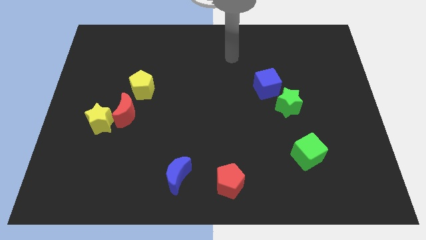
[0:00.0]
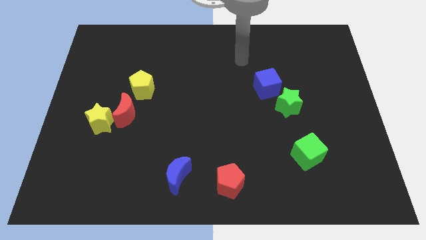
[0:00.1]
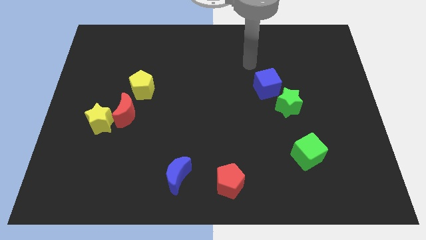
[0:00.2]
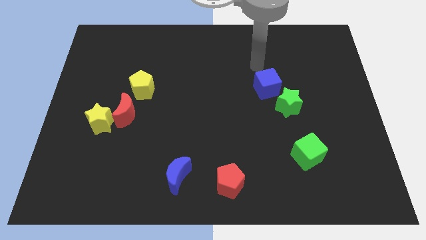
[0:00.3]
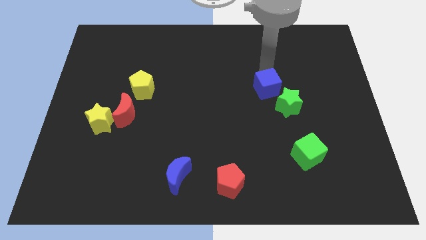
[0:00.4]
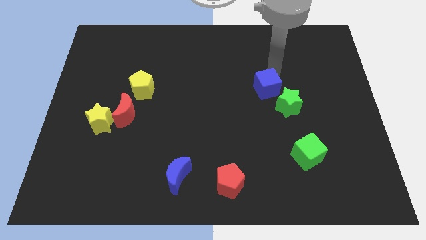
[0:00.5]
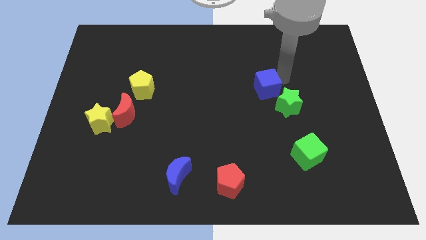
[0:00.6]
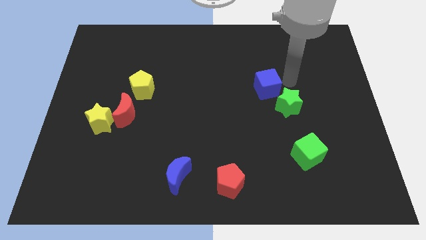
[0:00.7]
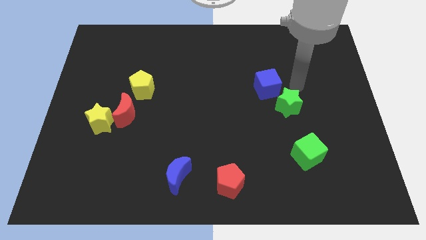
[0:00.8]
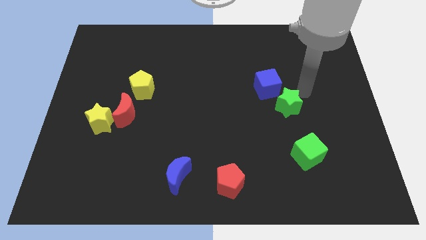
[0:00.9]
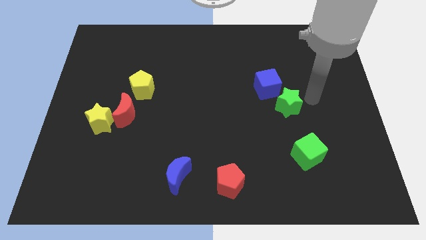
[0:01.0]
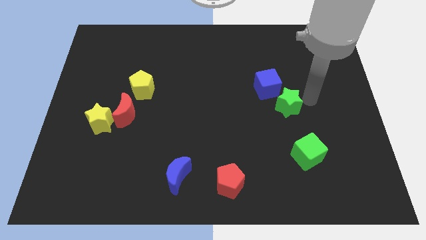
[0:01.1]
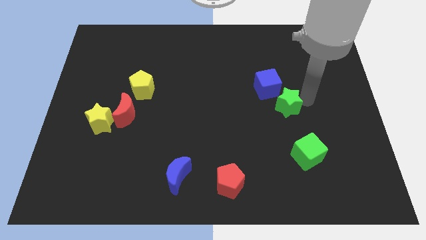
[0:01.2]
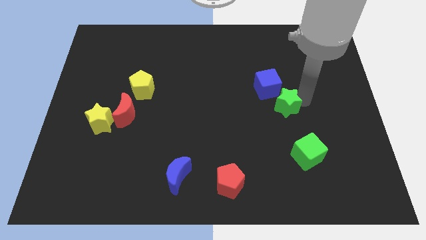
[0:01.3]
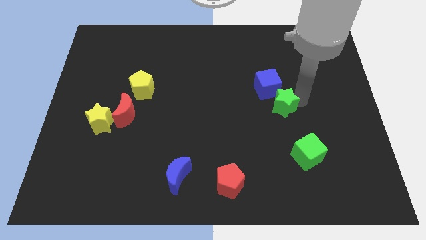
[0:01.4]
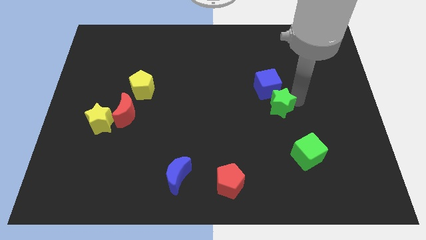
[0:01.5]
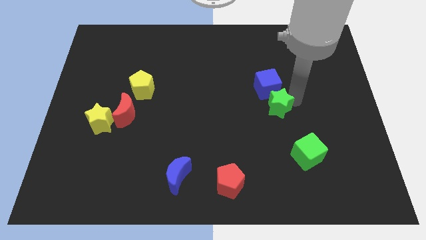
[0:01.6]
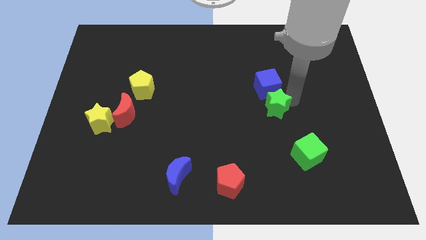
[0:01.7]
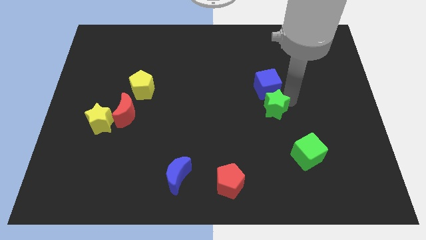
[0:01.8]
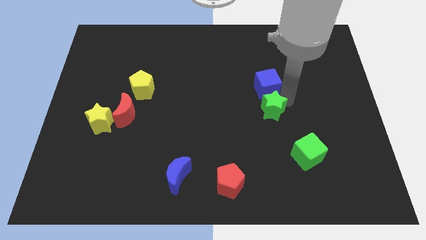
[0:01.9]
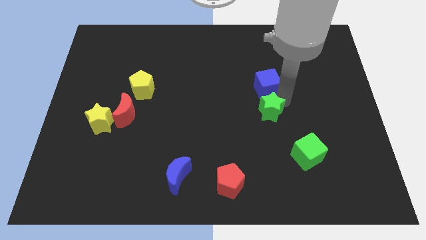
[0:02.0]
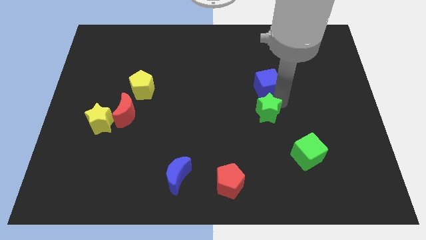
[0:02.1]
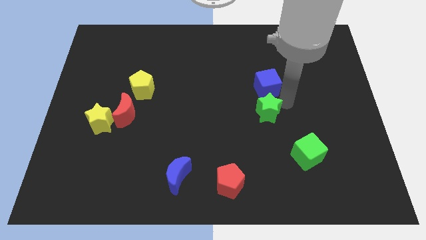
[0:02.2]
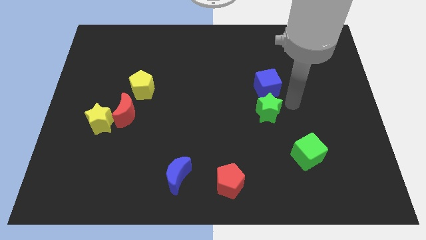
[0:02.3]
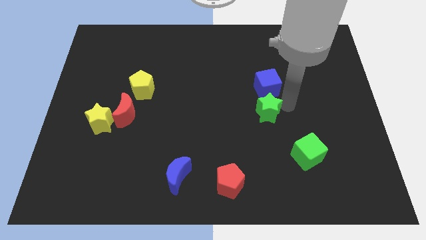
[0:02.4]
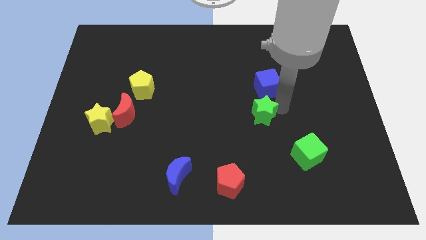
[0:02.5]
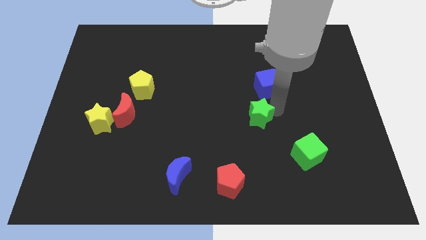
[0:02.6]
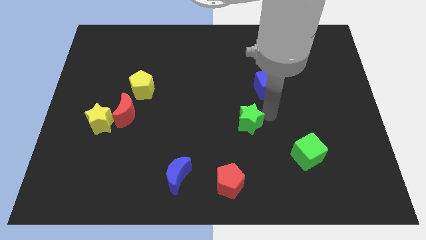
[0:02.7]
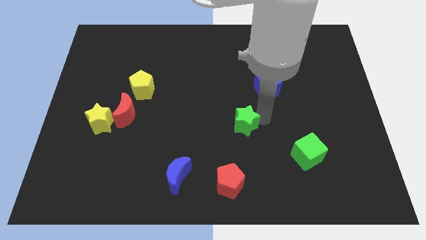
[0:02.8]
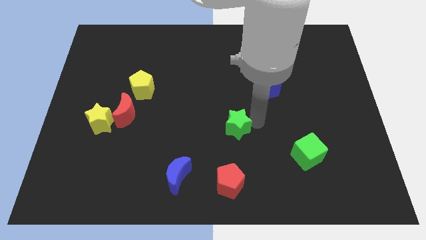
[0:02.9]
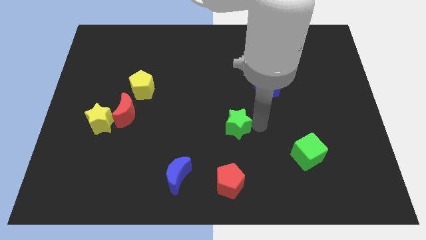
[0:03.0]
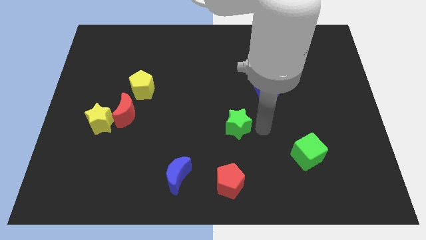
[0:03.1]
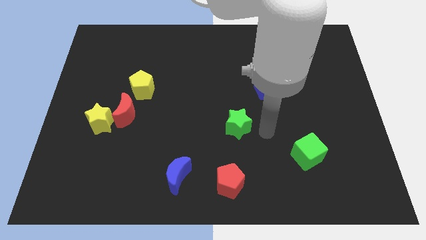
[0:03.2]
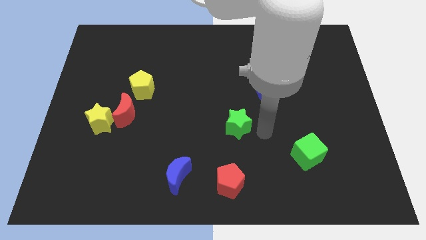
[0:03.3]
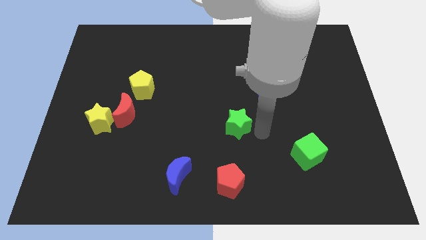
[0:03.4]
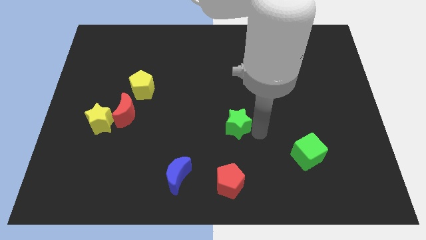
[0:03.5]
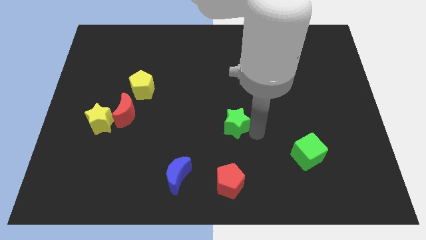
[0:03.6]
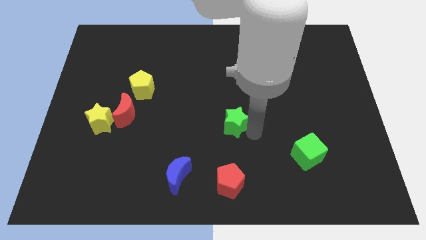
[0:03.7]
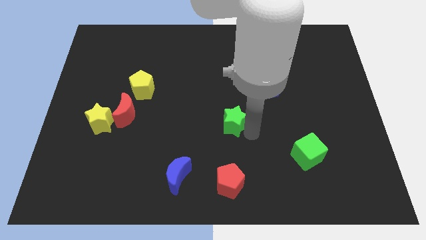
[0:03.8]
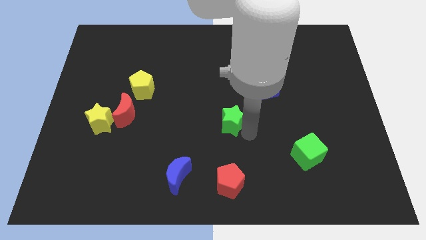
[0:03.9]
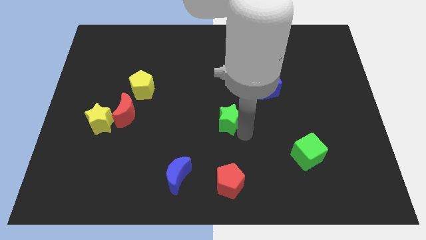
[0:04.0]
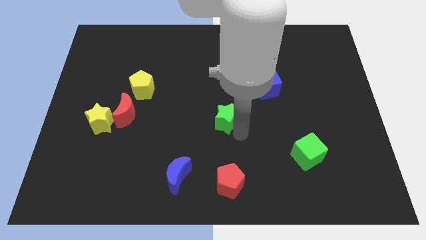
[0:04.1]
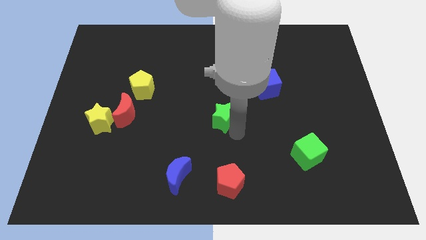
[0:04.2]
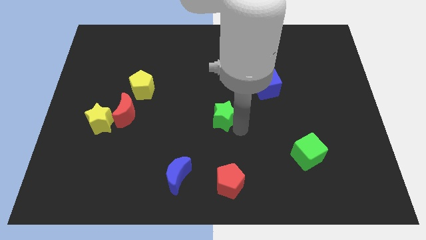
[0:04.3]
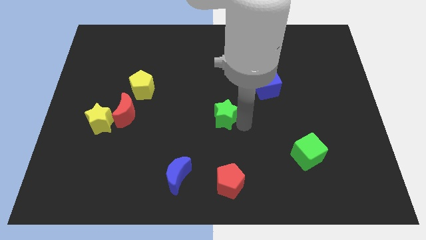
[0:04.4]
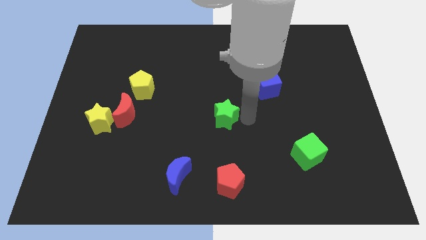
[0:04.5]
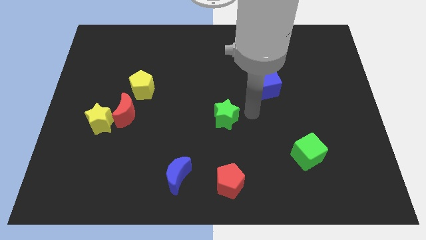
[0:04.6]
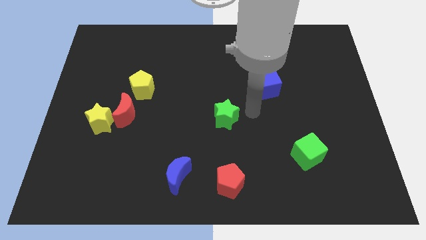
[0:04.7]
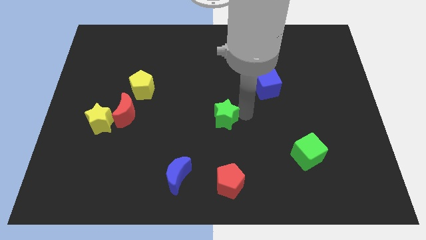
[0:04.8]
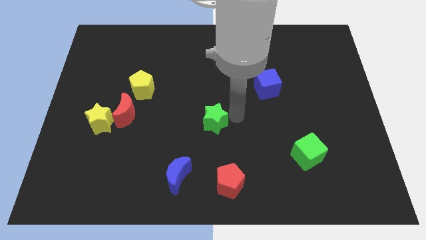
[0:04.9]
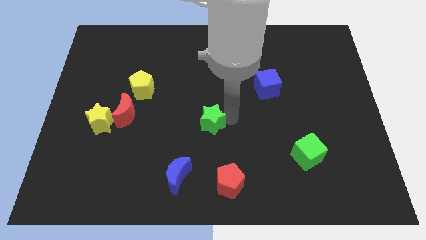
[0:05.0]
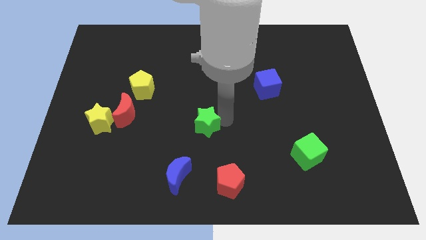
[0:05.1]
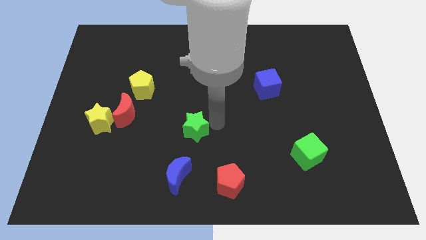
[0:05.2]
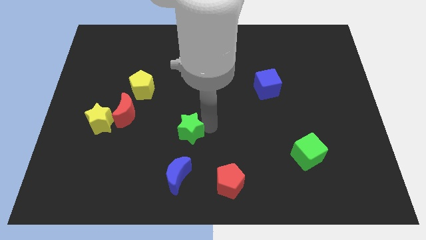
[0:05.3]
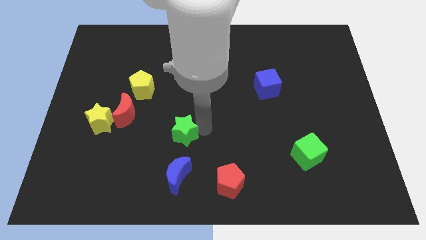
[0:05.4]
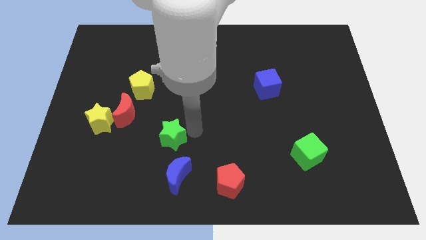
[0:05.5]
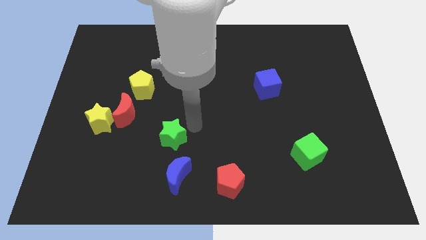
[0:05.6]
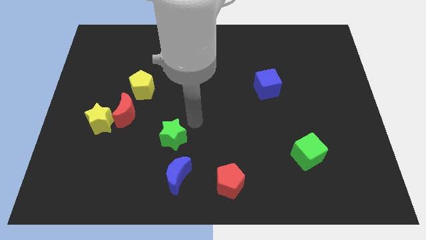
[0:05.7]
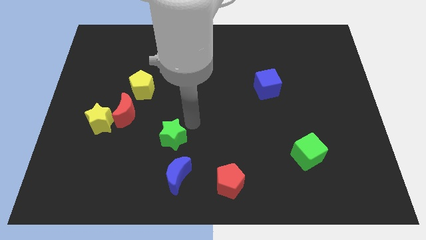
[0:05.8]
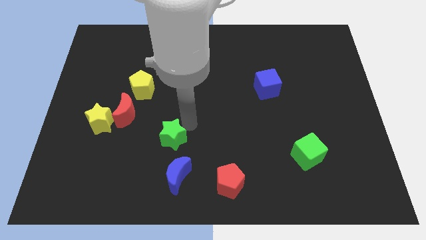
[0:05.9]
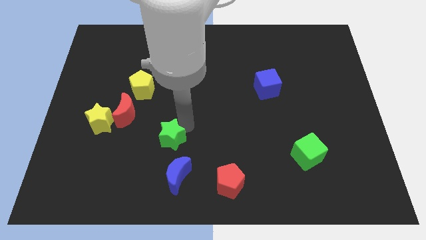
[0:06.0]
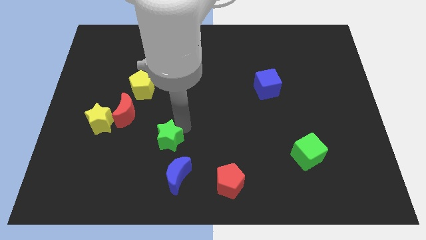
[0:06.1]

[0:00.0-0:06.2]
push the green star to the top left side of the blue moon

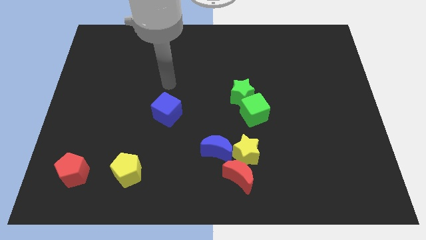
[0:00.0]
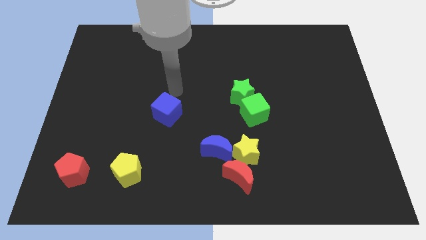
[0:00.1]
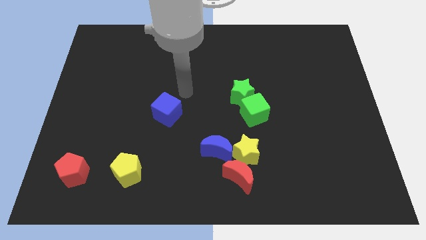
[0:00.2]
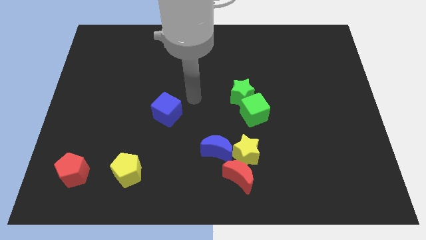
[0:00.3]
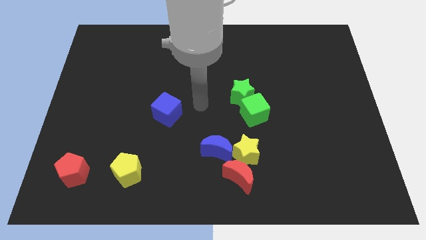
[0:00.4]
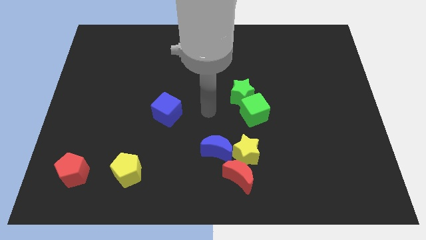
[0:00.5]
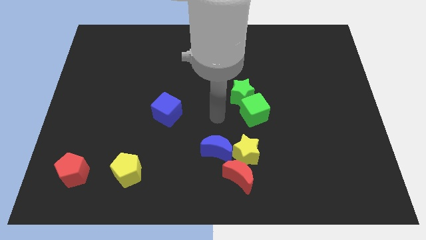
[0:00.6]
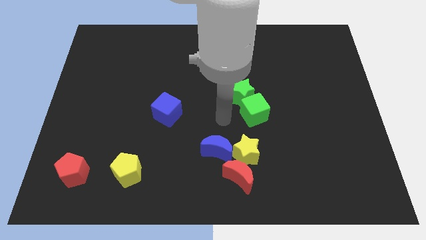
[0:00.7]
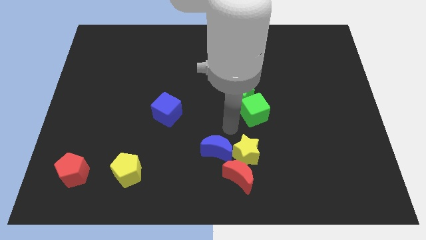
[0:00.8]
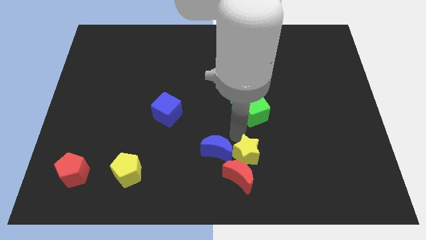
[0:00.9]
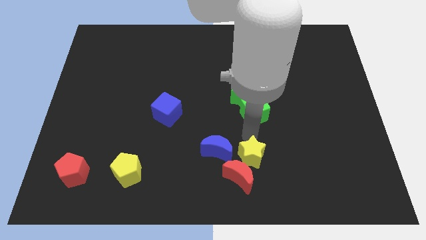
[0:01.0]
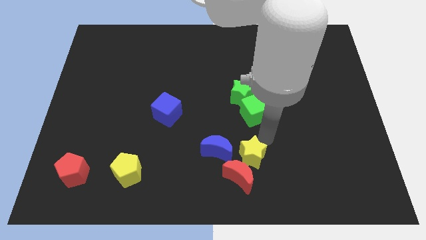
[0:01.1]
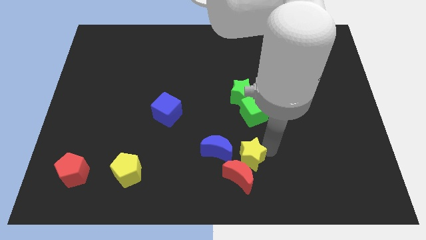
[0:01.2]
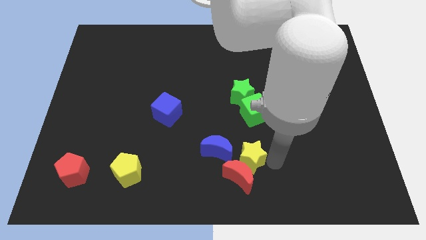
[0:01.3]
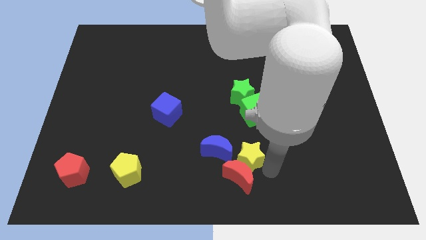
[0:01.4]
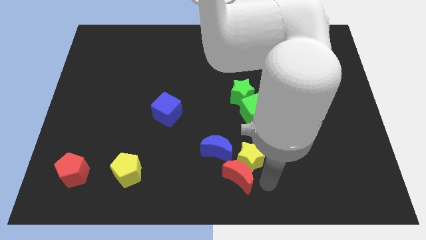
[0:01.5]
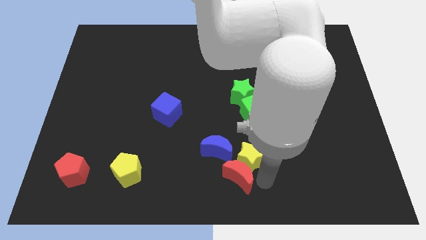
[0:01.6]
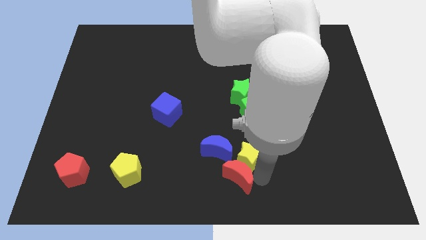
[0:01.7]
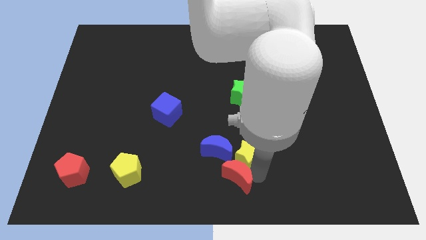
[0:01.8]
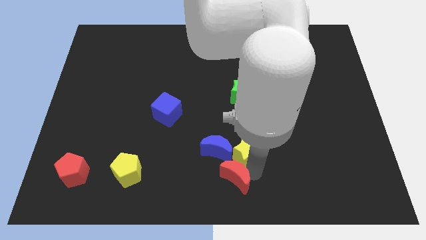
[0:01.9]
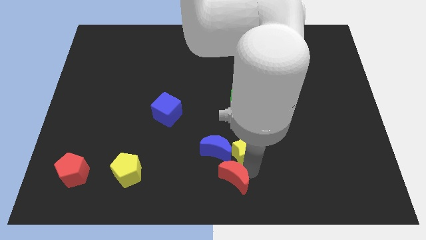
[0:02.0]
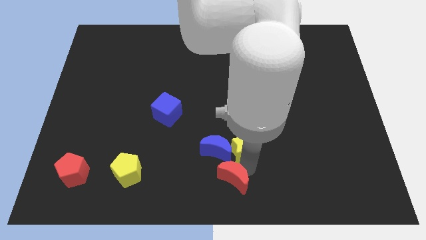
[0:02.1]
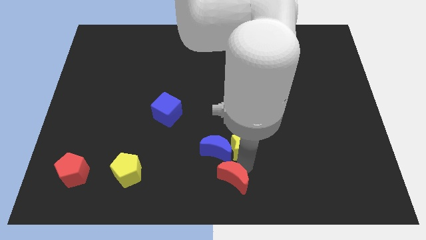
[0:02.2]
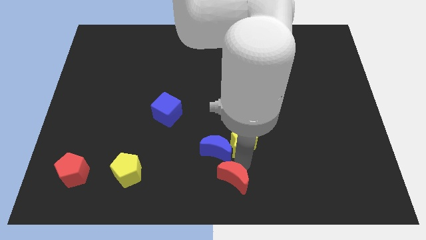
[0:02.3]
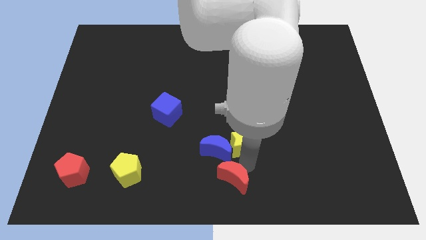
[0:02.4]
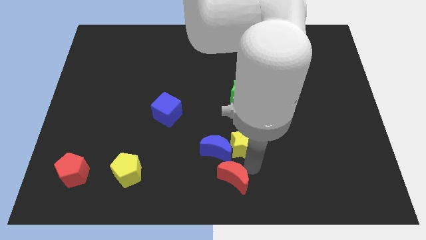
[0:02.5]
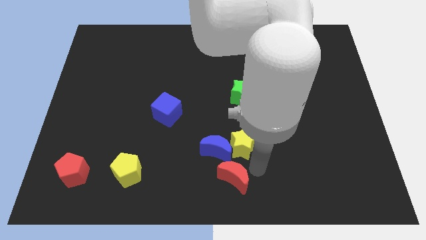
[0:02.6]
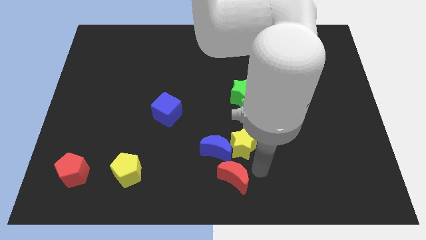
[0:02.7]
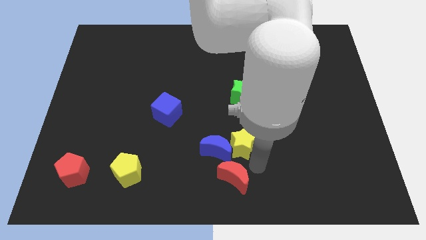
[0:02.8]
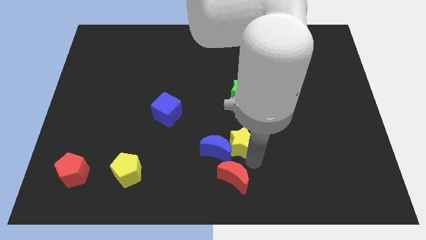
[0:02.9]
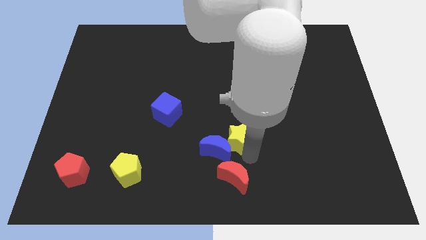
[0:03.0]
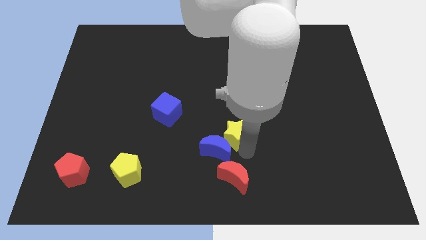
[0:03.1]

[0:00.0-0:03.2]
put the yellow star to the top side of the blue moon
